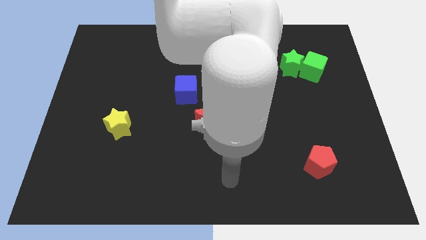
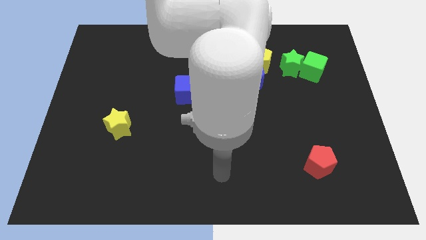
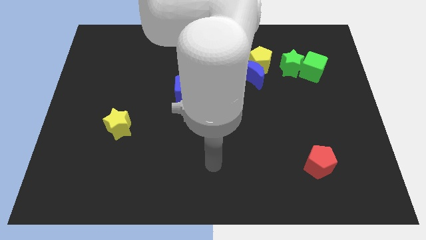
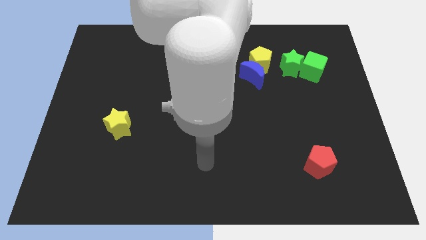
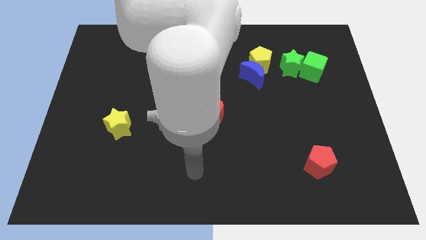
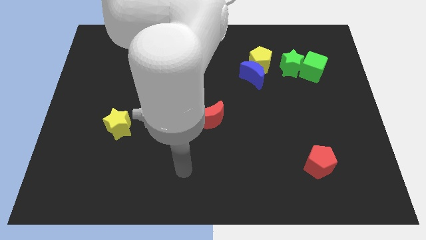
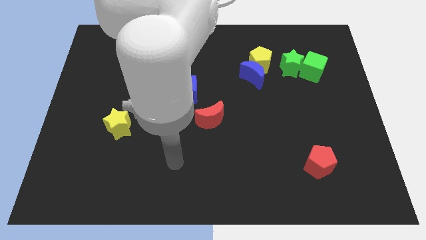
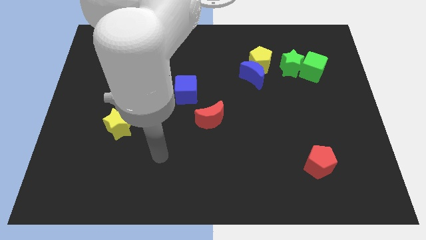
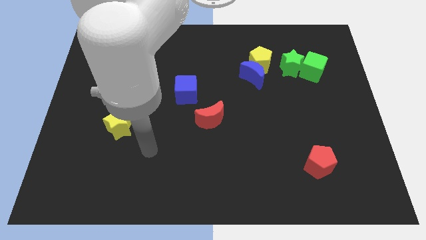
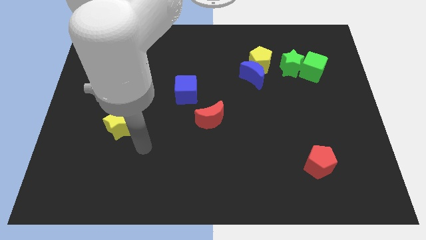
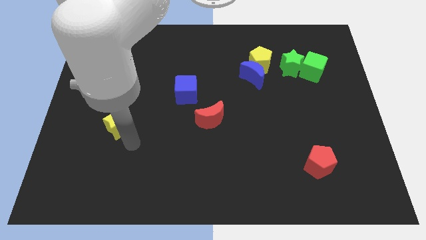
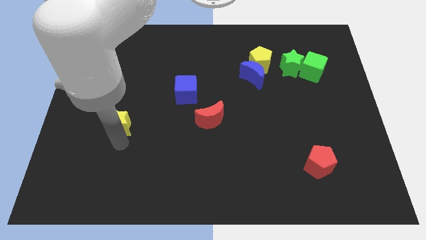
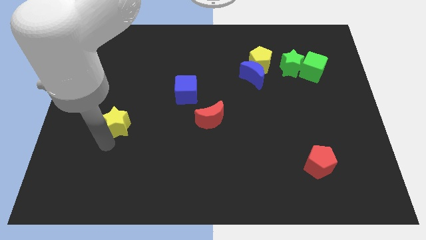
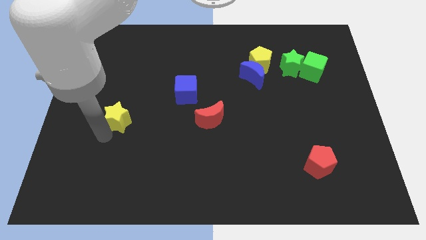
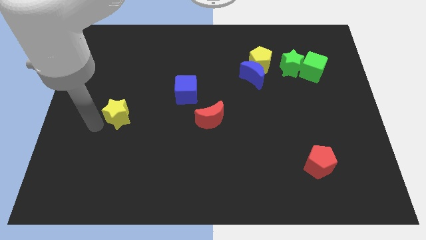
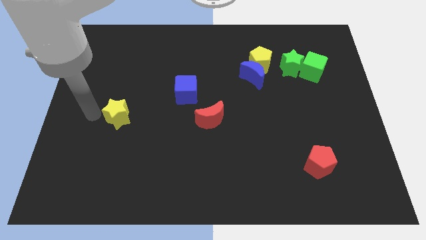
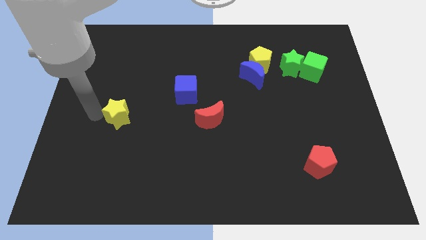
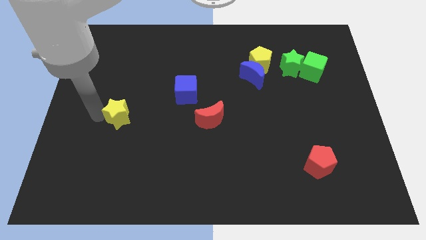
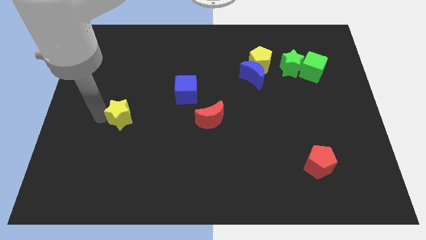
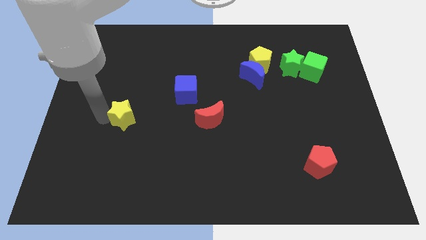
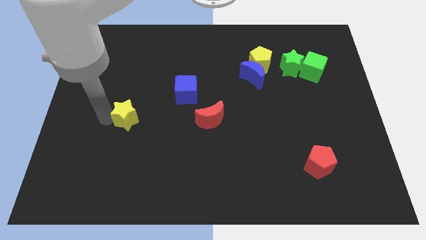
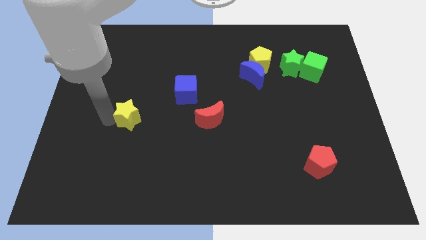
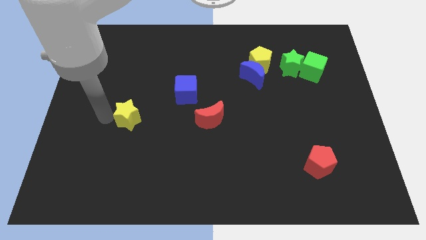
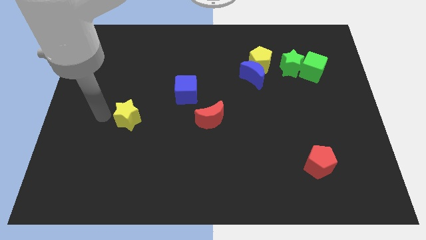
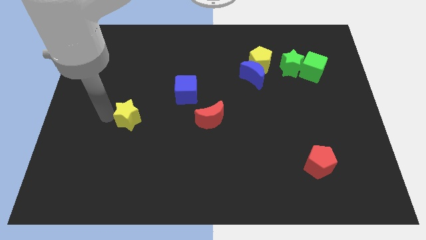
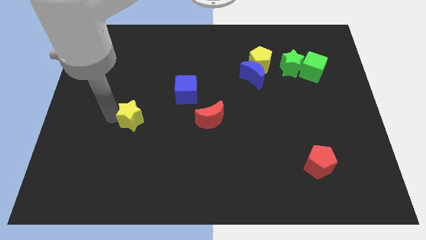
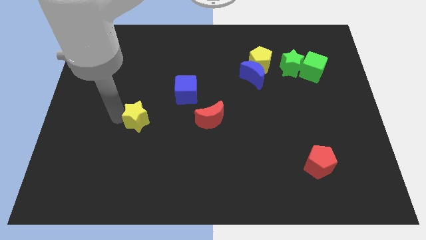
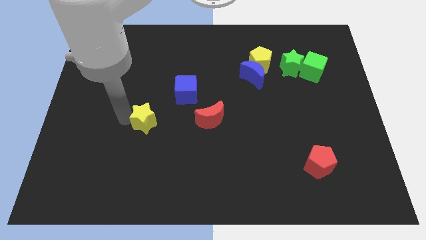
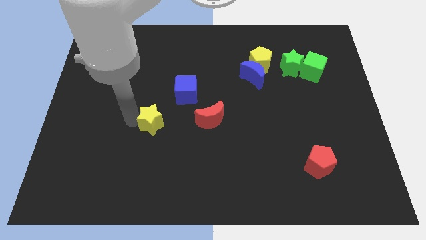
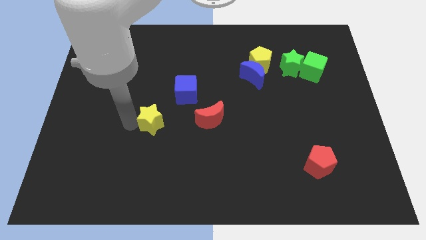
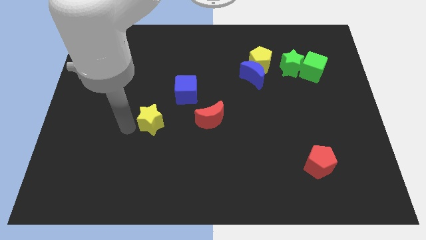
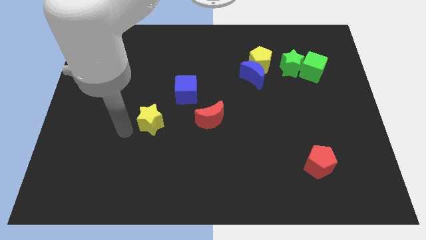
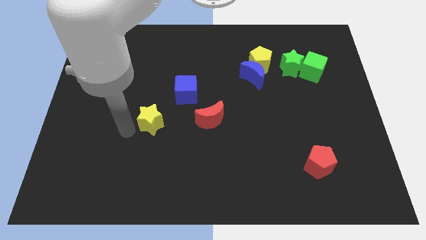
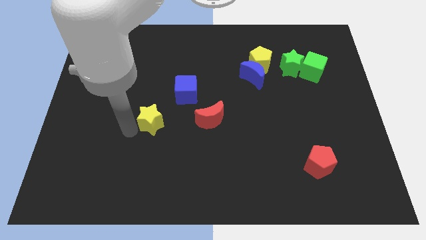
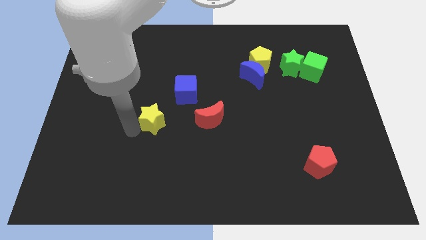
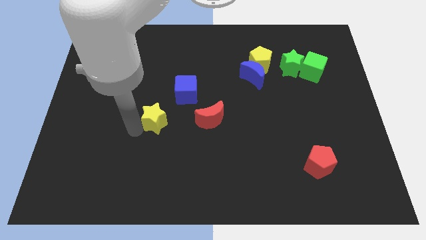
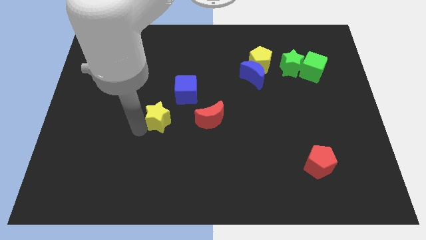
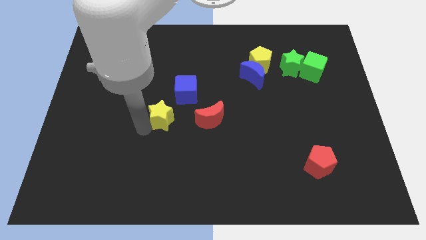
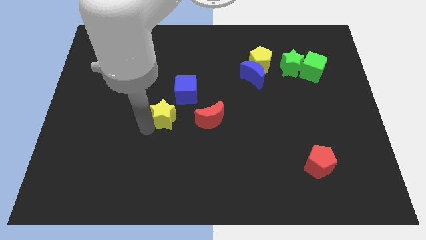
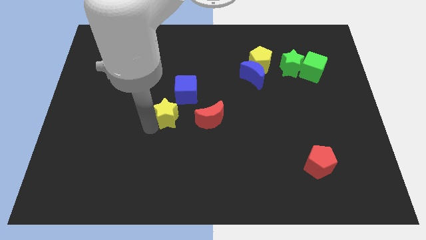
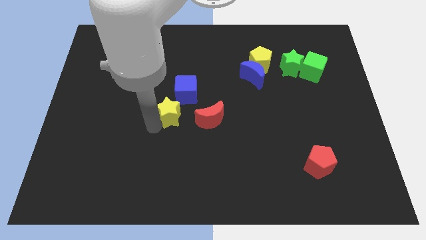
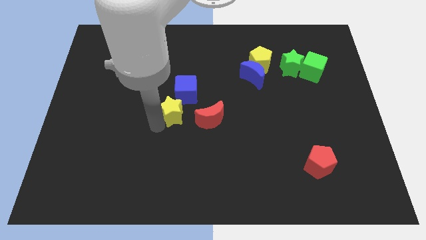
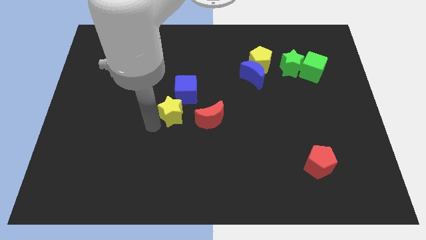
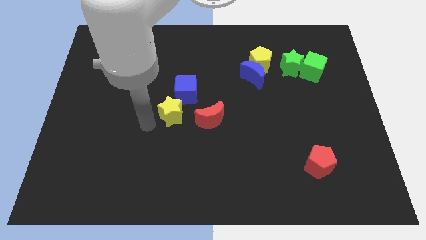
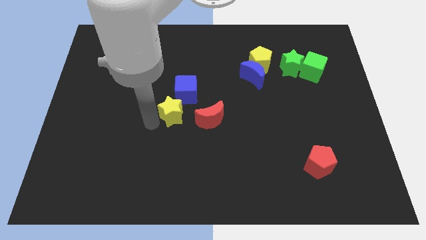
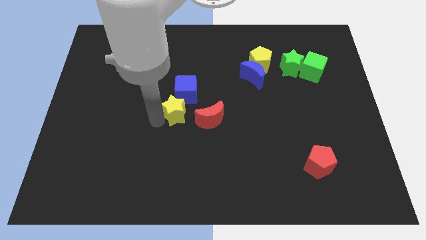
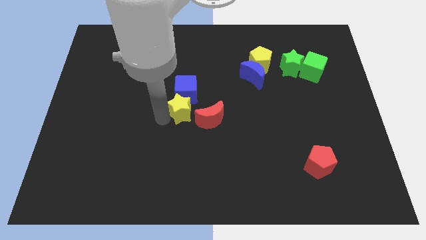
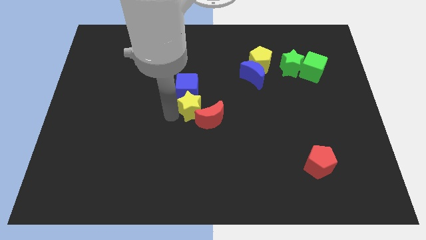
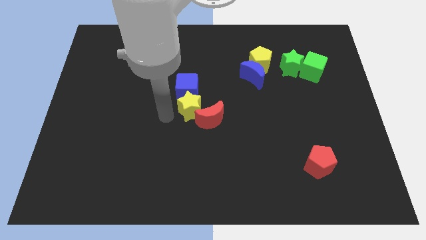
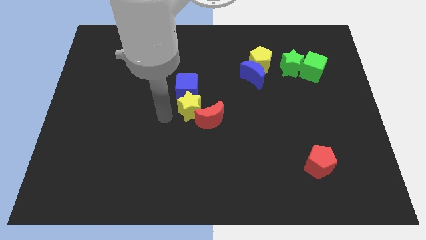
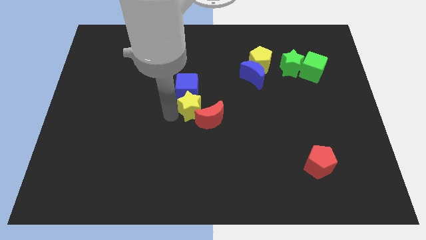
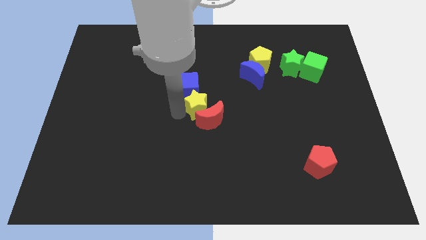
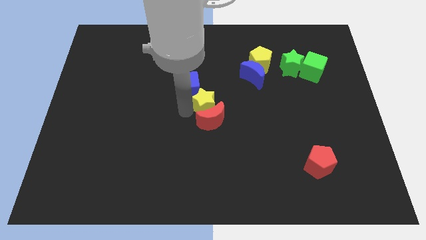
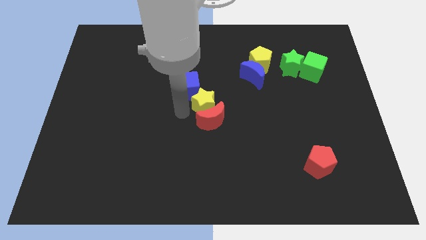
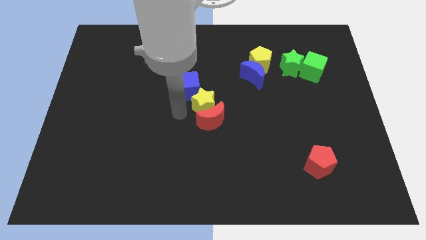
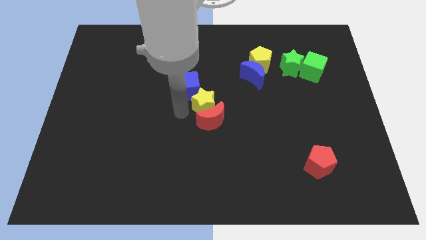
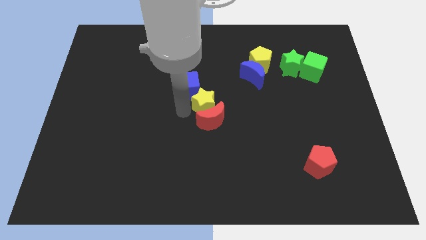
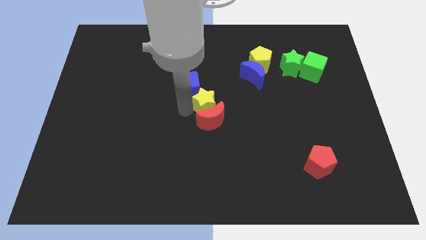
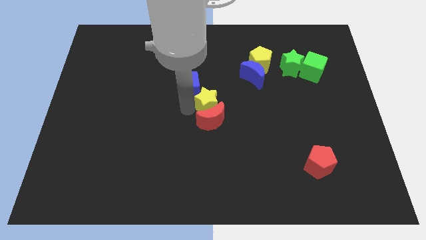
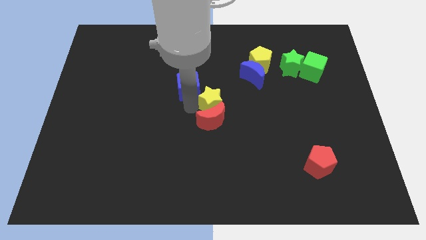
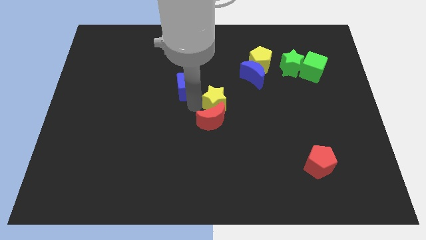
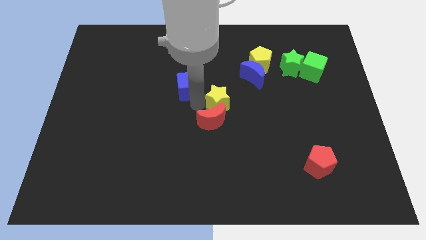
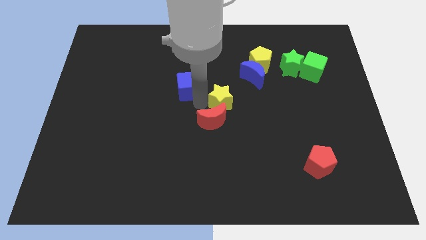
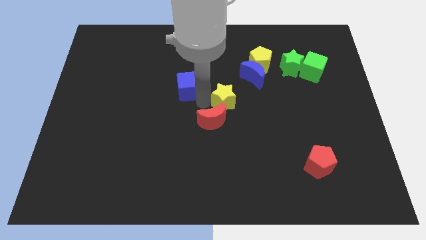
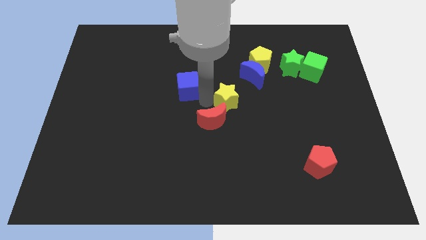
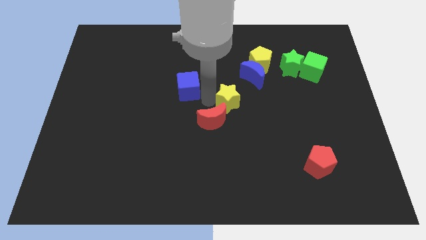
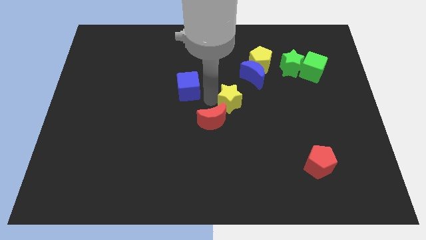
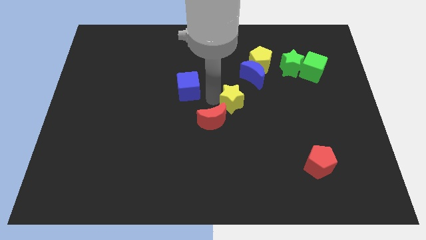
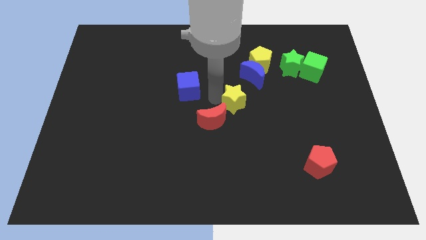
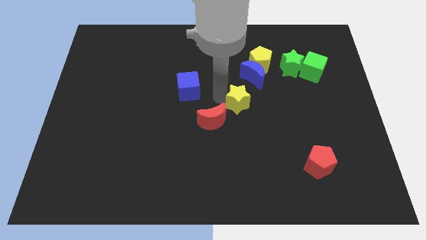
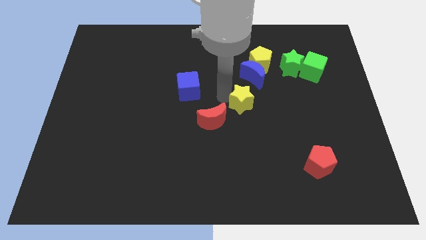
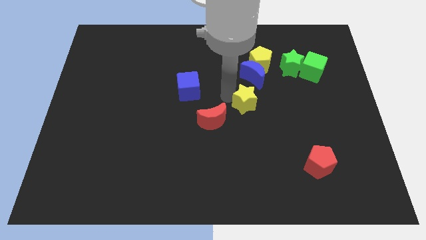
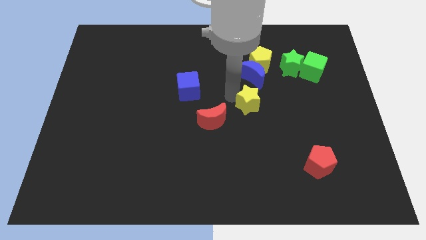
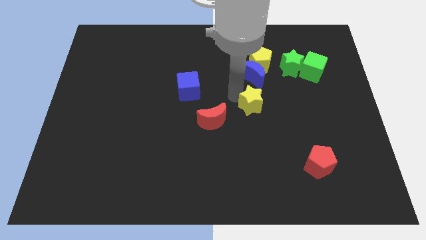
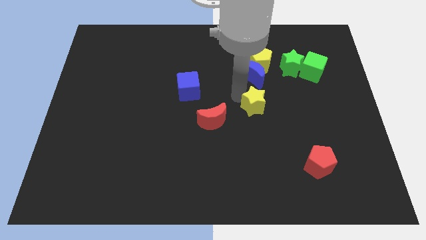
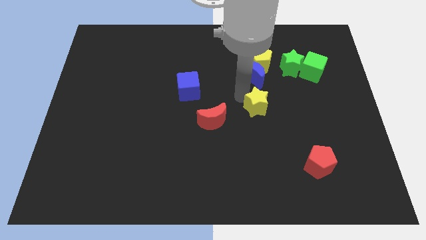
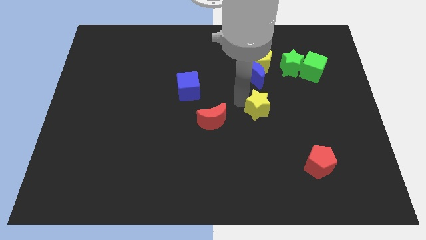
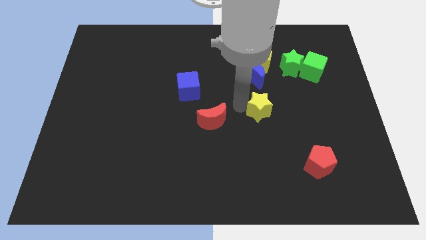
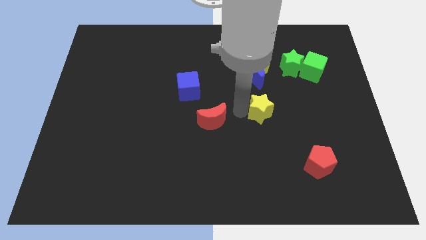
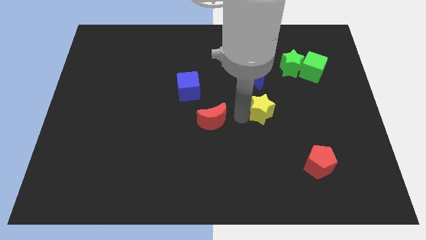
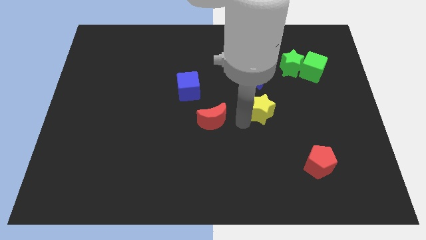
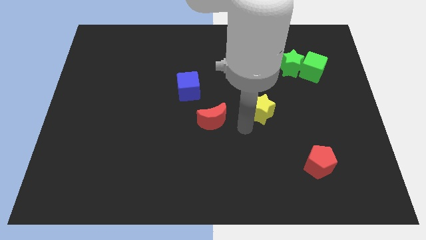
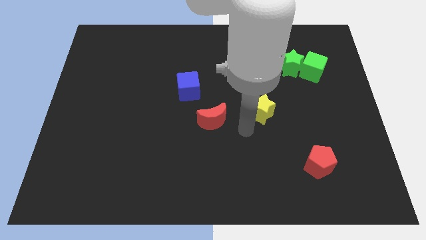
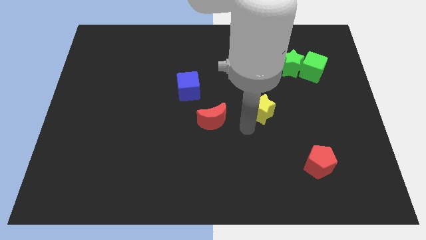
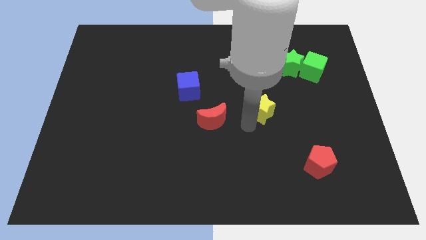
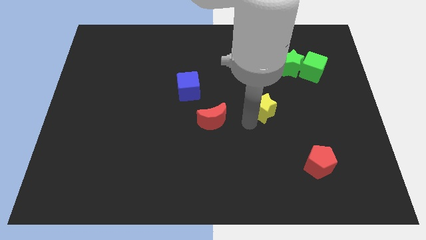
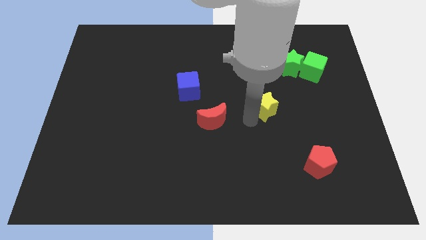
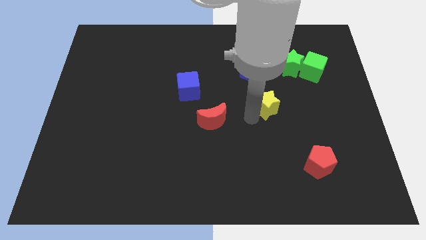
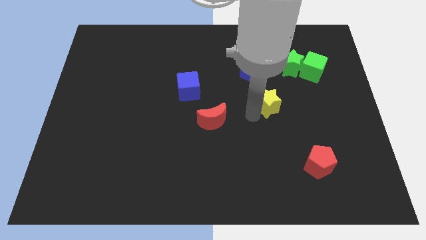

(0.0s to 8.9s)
slide the yellow star to the bottom right side of the blue moon
